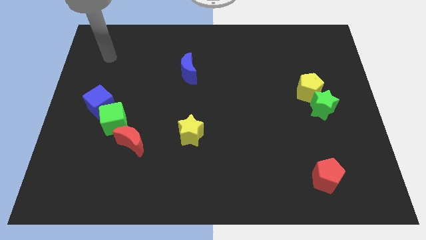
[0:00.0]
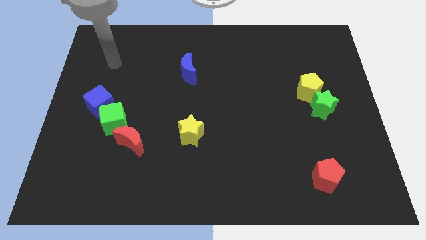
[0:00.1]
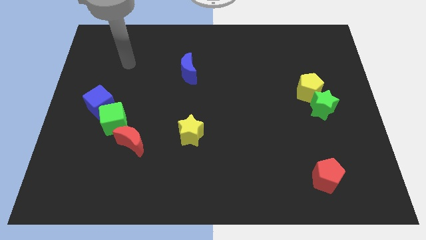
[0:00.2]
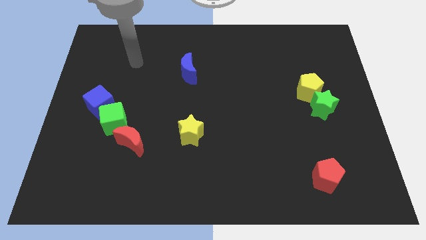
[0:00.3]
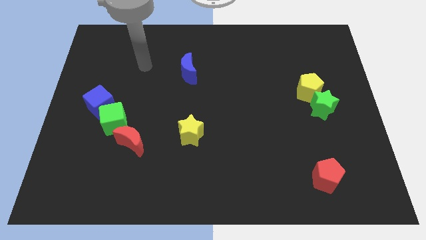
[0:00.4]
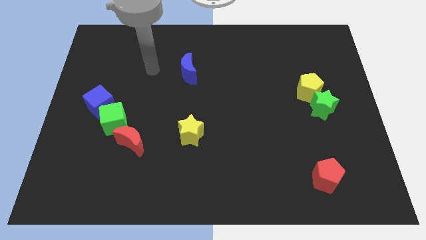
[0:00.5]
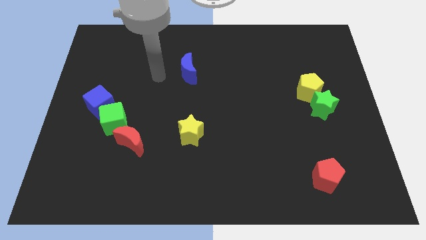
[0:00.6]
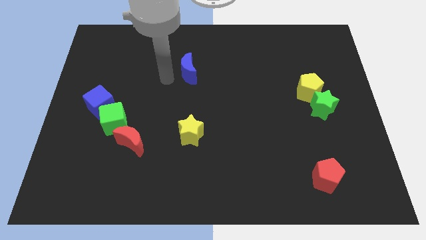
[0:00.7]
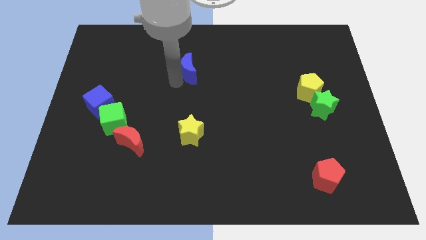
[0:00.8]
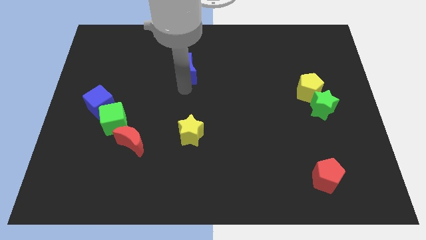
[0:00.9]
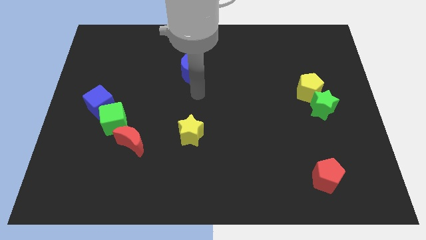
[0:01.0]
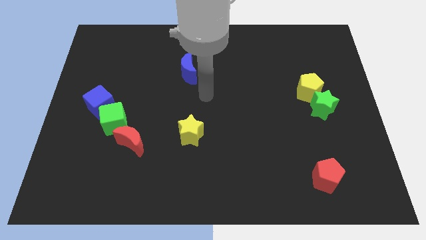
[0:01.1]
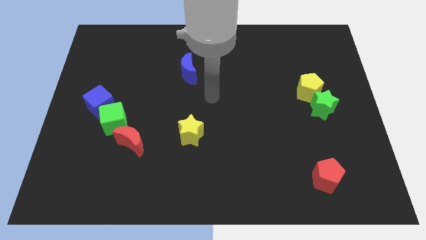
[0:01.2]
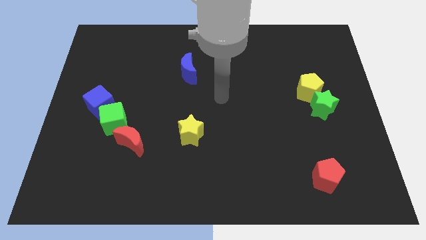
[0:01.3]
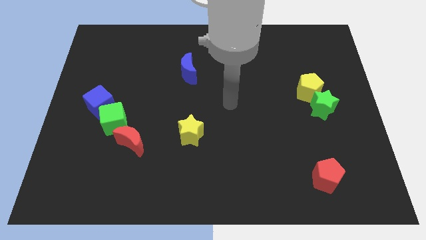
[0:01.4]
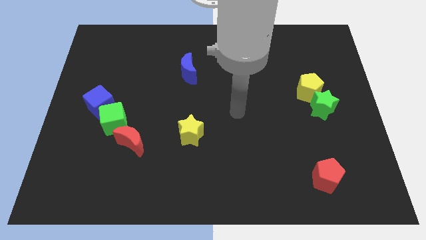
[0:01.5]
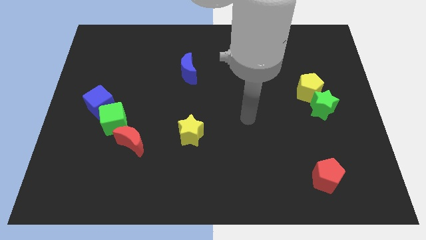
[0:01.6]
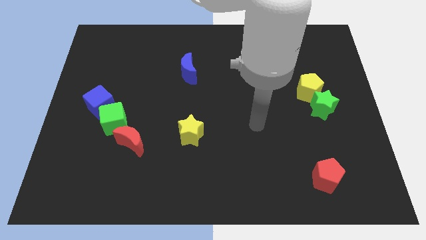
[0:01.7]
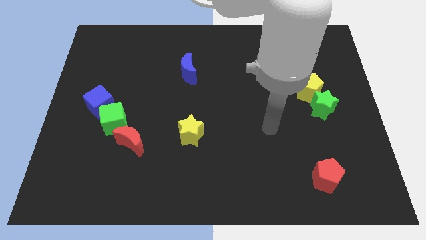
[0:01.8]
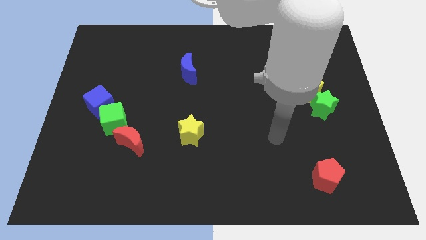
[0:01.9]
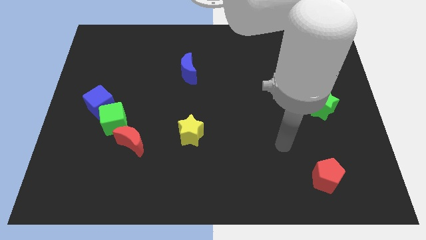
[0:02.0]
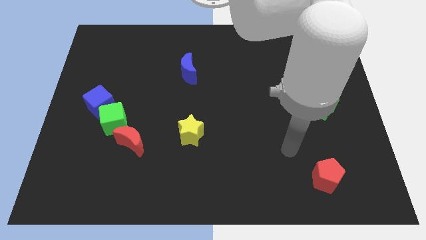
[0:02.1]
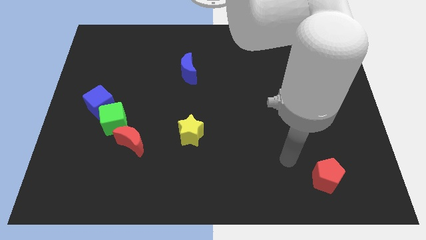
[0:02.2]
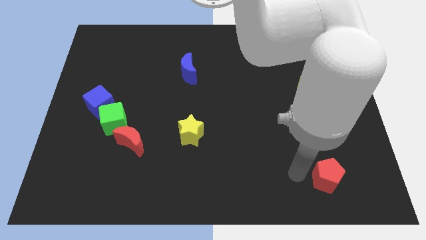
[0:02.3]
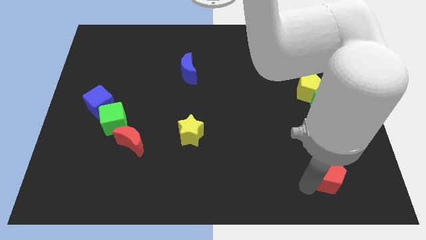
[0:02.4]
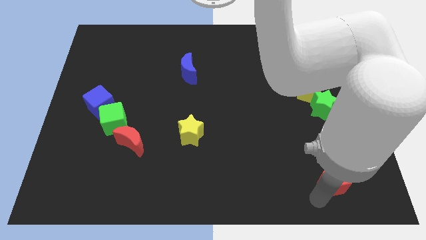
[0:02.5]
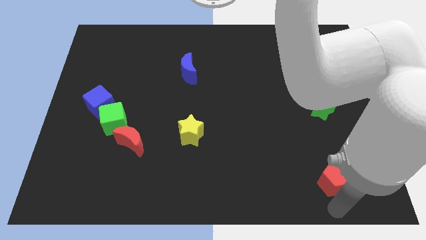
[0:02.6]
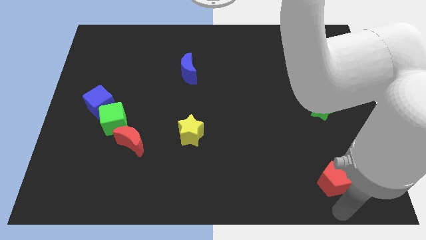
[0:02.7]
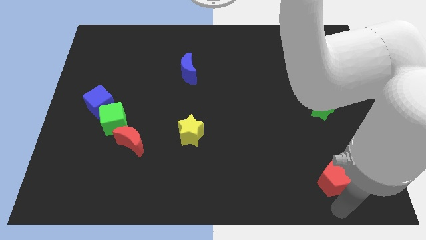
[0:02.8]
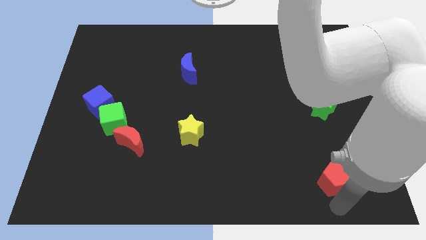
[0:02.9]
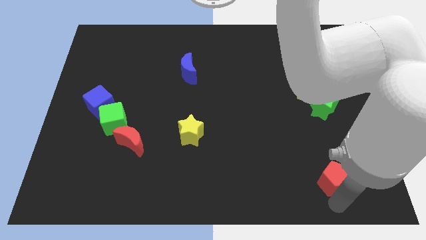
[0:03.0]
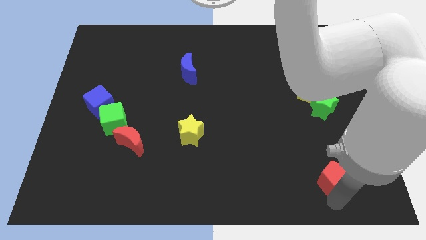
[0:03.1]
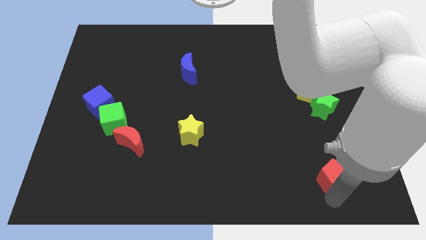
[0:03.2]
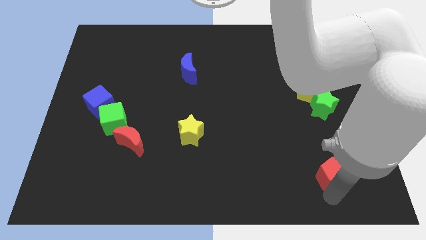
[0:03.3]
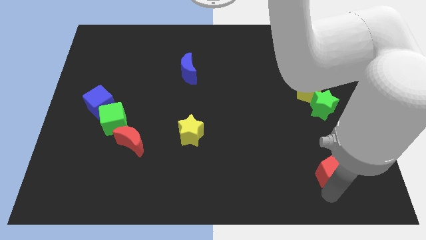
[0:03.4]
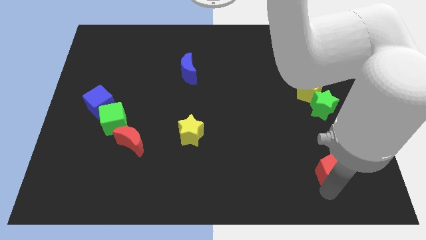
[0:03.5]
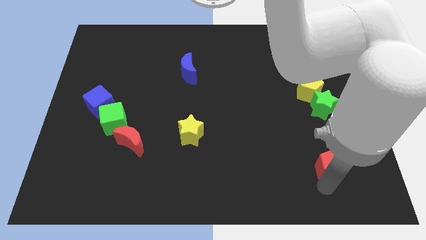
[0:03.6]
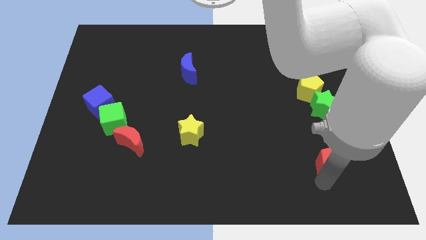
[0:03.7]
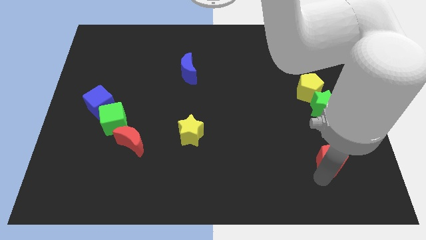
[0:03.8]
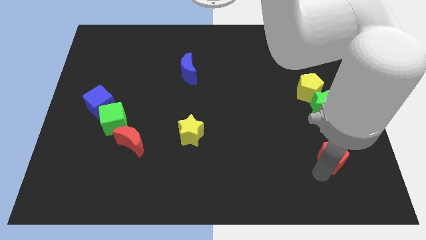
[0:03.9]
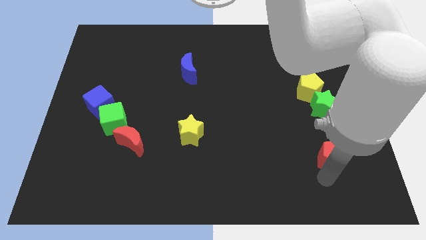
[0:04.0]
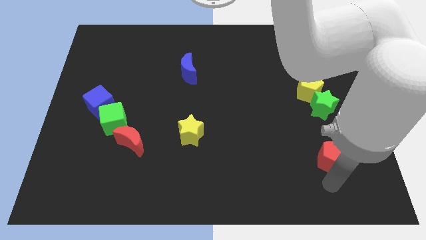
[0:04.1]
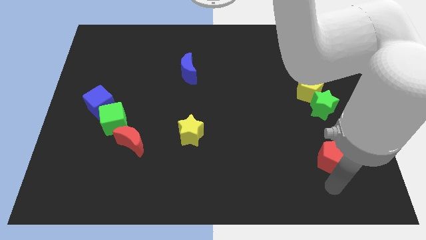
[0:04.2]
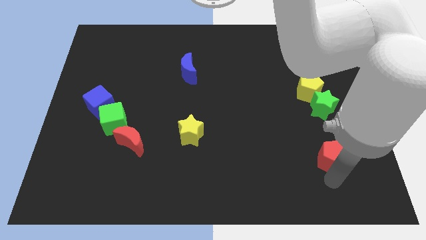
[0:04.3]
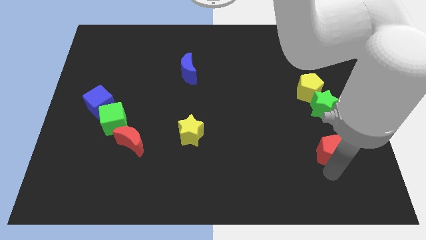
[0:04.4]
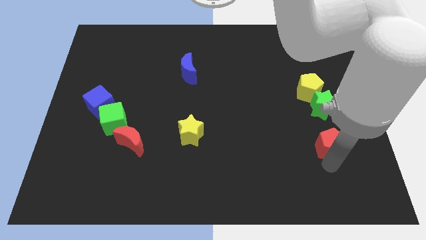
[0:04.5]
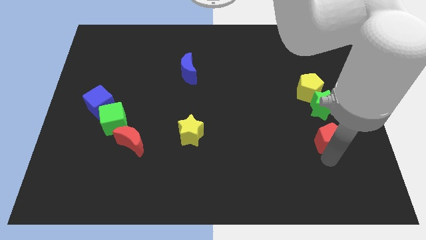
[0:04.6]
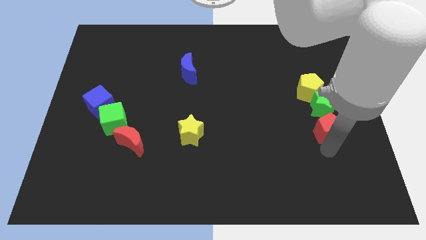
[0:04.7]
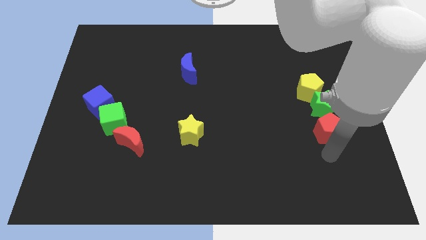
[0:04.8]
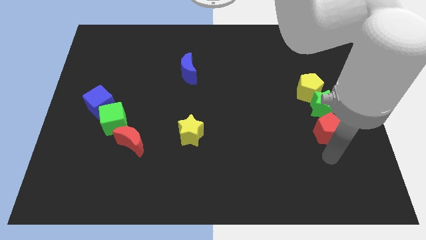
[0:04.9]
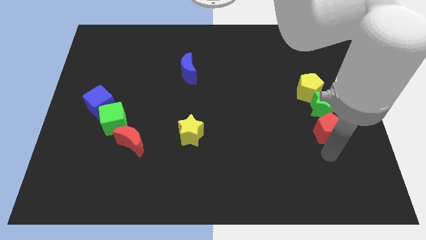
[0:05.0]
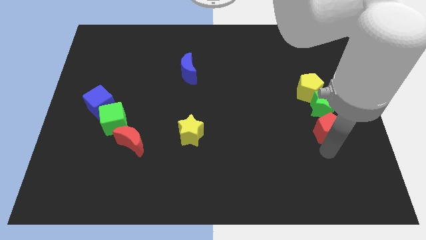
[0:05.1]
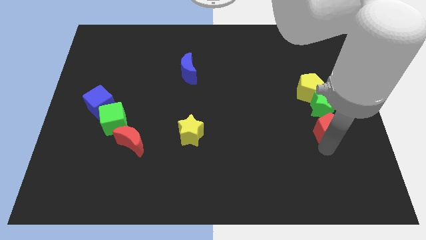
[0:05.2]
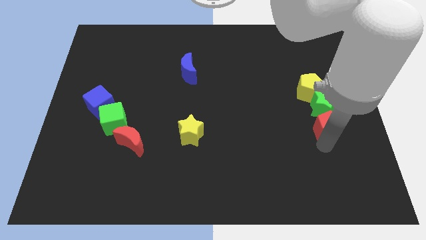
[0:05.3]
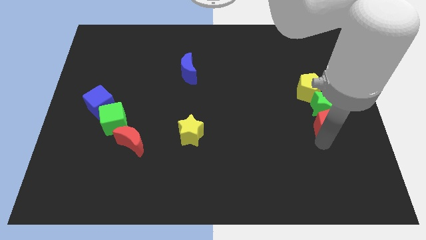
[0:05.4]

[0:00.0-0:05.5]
put the red pentagon towards the green star

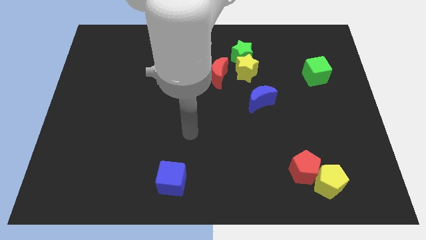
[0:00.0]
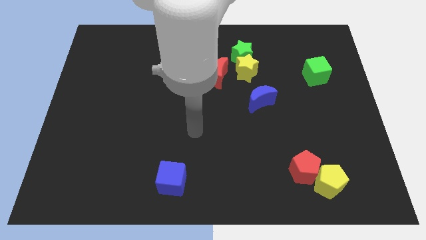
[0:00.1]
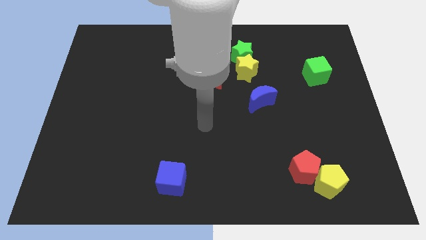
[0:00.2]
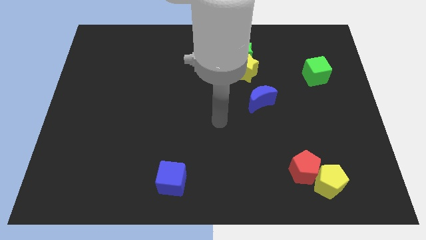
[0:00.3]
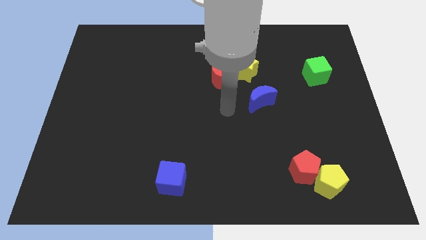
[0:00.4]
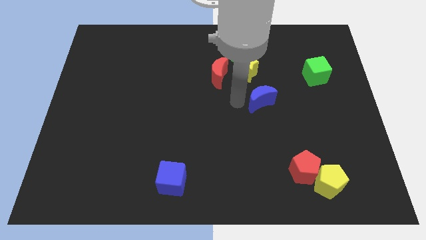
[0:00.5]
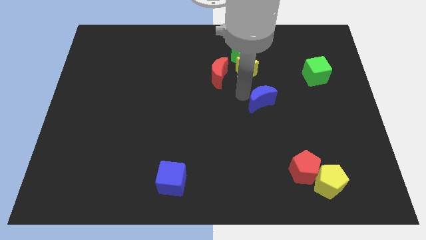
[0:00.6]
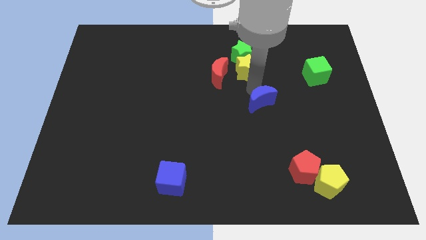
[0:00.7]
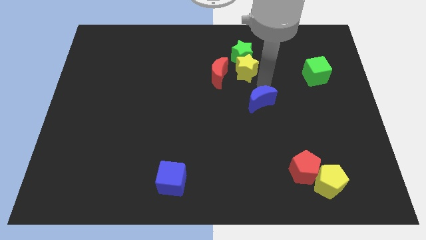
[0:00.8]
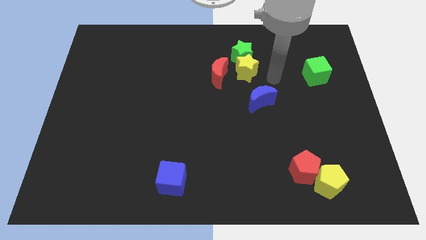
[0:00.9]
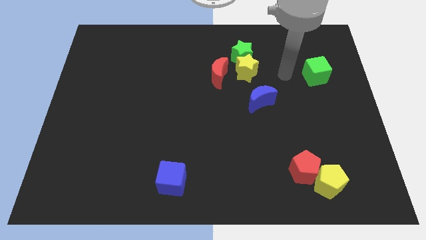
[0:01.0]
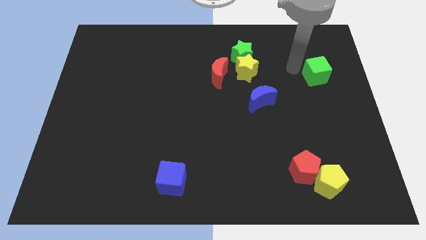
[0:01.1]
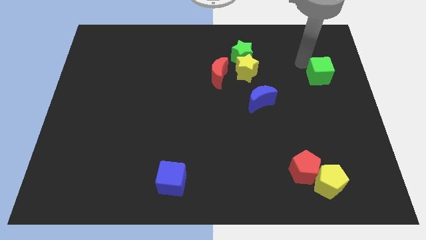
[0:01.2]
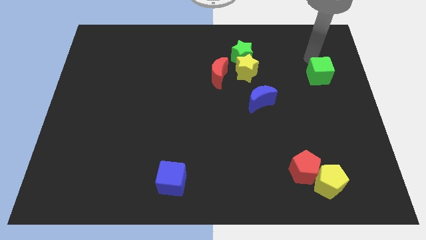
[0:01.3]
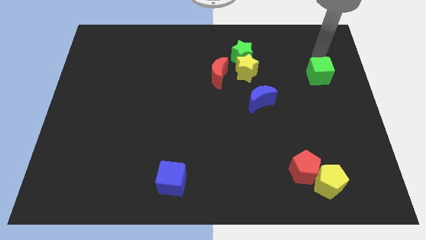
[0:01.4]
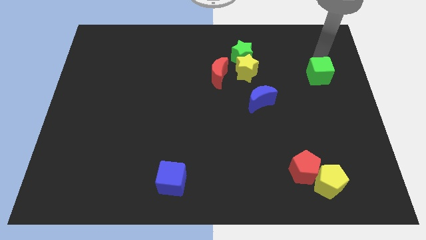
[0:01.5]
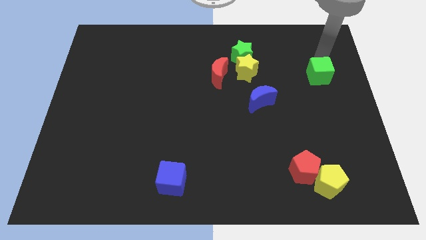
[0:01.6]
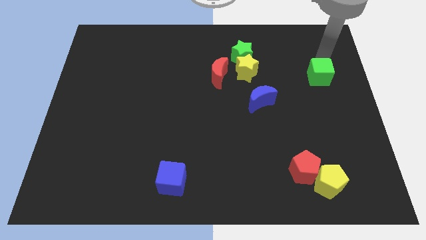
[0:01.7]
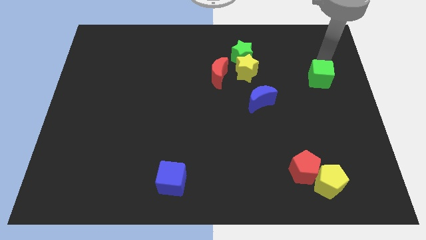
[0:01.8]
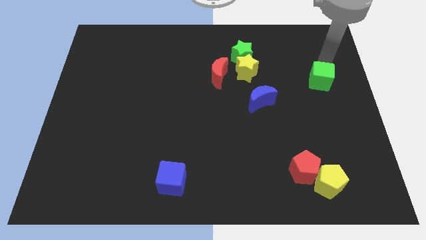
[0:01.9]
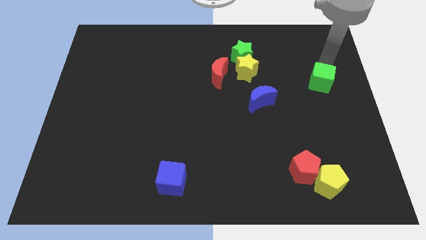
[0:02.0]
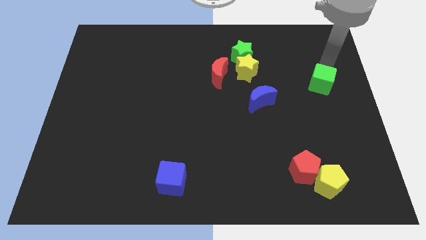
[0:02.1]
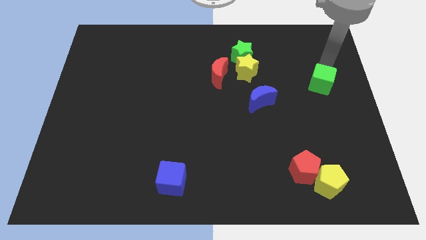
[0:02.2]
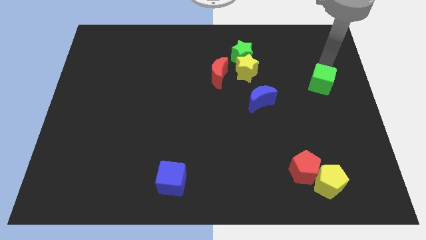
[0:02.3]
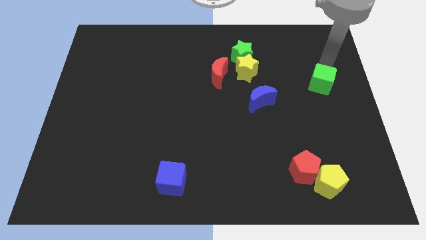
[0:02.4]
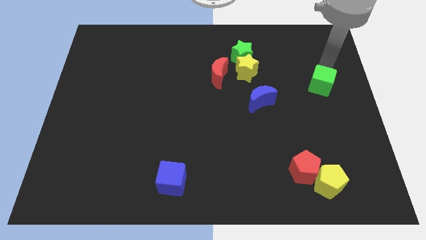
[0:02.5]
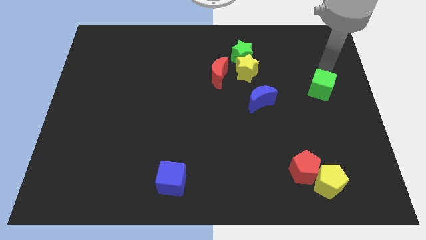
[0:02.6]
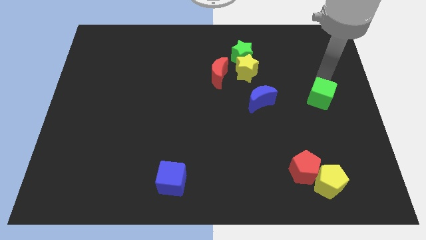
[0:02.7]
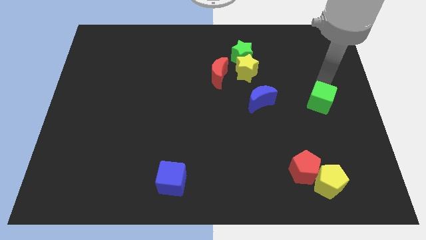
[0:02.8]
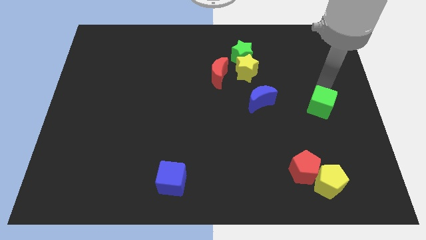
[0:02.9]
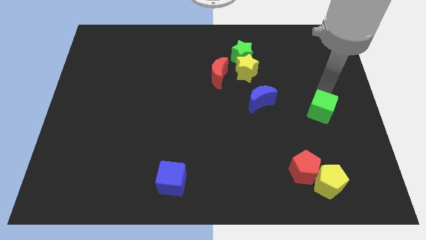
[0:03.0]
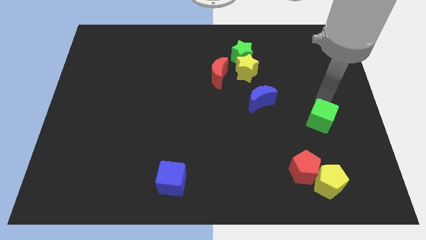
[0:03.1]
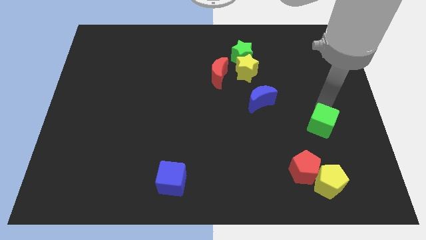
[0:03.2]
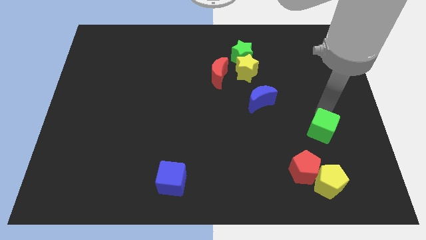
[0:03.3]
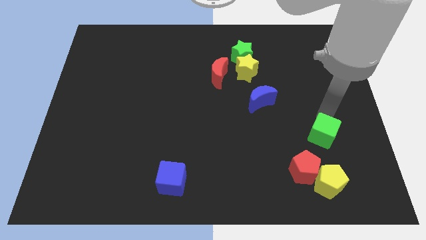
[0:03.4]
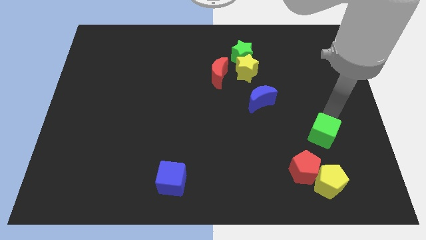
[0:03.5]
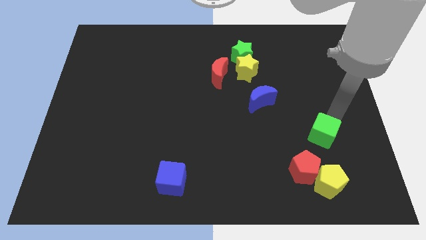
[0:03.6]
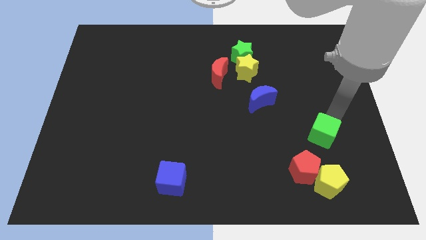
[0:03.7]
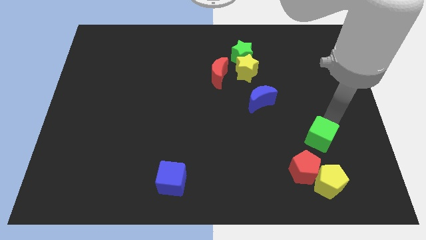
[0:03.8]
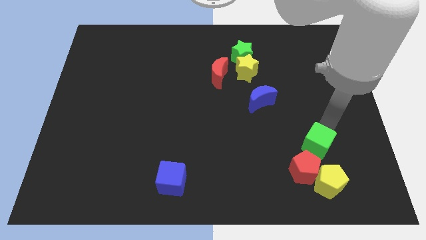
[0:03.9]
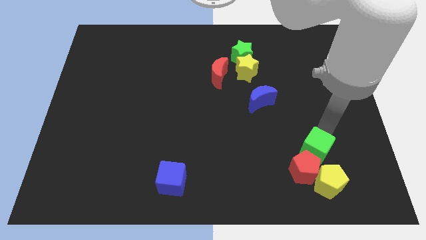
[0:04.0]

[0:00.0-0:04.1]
push the green cube close to the red pentagon
